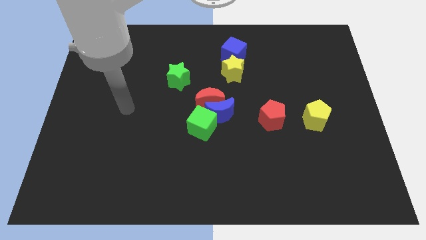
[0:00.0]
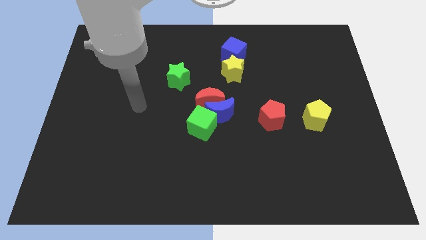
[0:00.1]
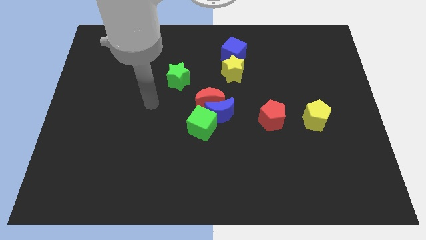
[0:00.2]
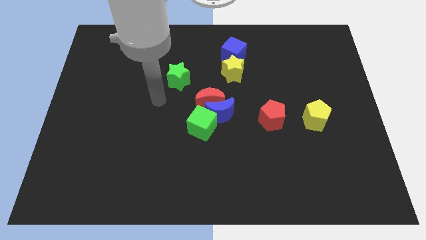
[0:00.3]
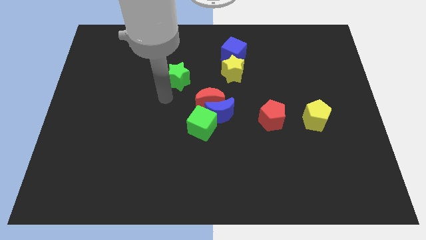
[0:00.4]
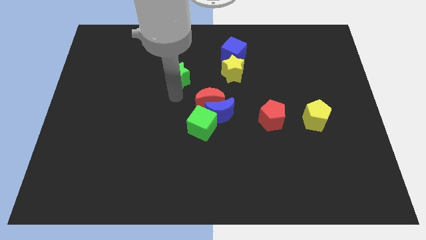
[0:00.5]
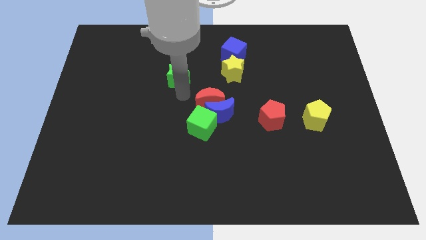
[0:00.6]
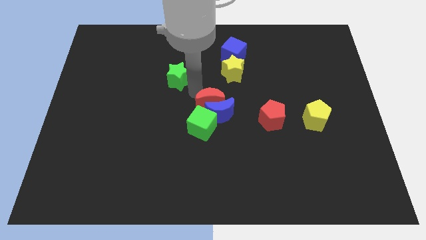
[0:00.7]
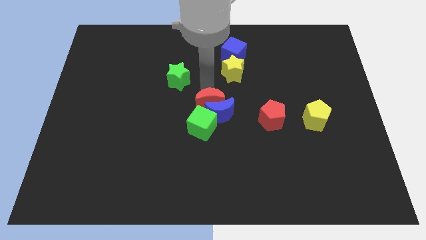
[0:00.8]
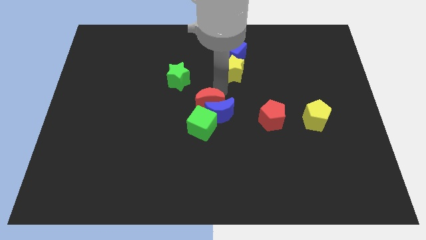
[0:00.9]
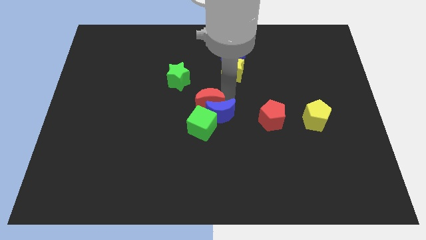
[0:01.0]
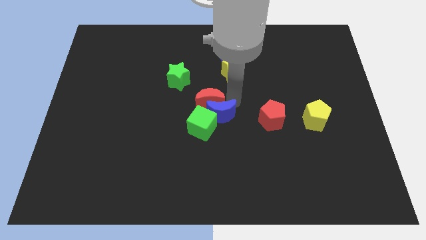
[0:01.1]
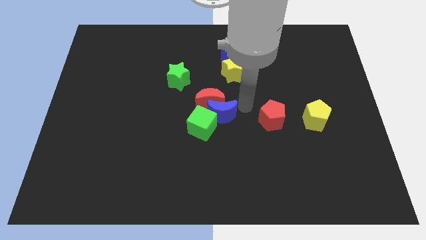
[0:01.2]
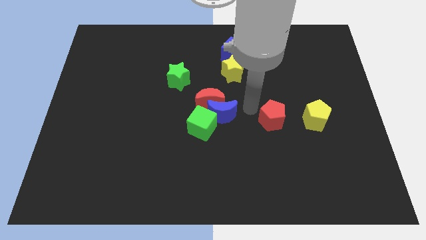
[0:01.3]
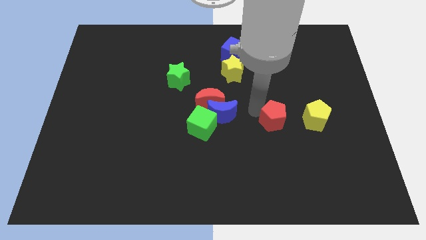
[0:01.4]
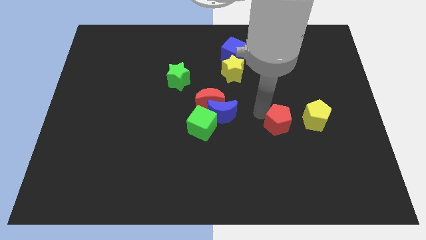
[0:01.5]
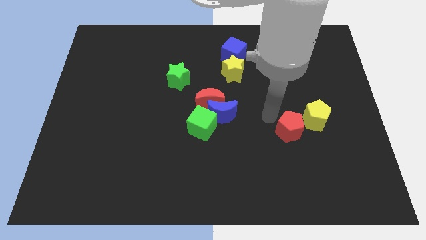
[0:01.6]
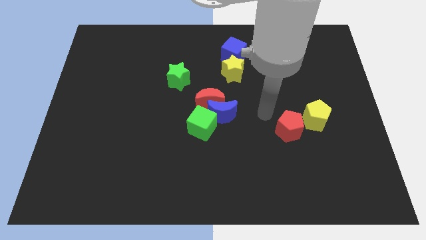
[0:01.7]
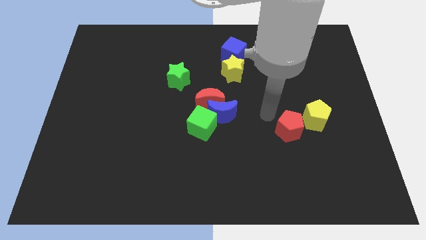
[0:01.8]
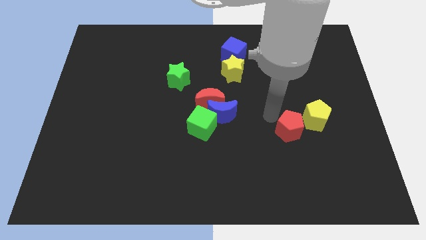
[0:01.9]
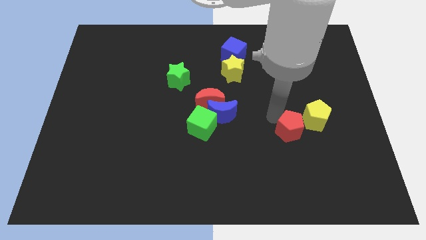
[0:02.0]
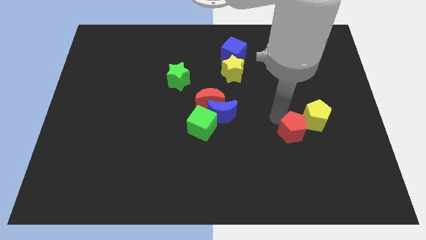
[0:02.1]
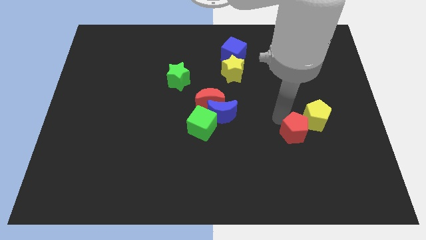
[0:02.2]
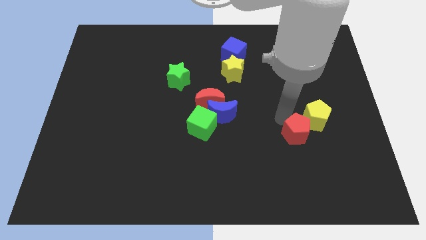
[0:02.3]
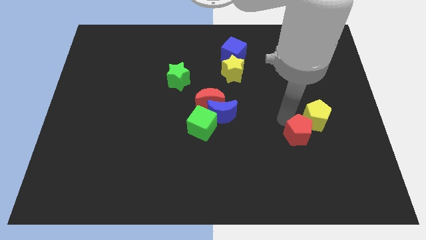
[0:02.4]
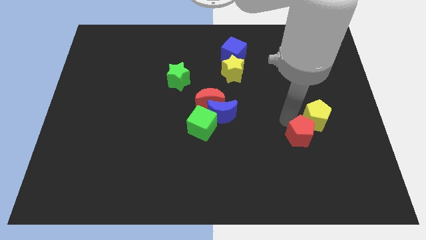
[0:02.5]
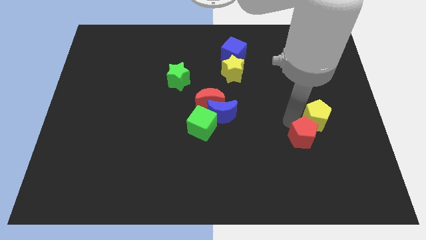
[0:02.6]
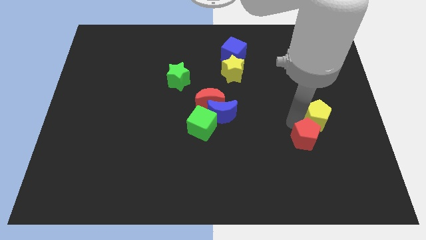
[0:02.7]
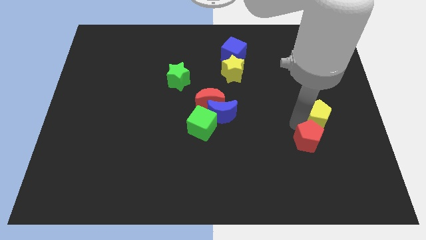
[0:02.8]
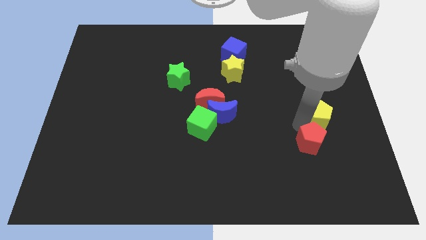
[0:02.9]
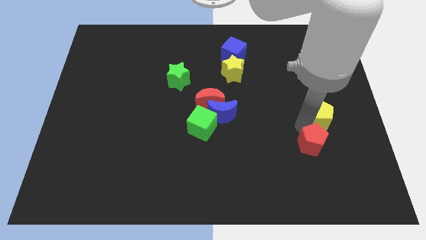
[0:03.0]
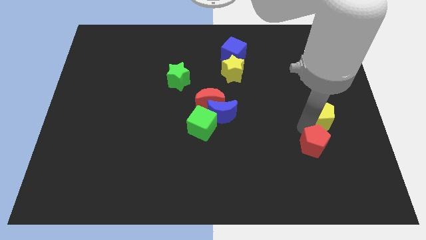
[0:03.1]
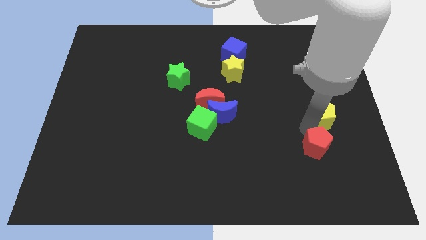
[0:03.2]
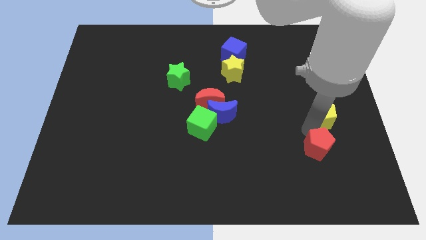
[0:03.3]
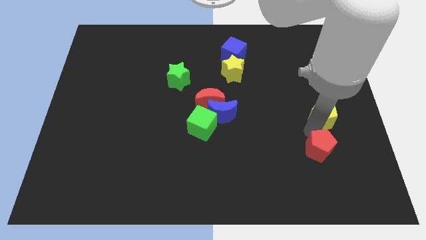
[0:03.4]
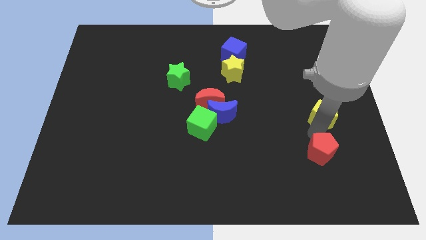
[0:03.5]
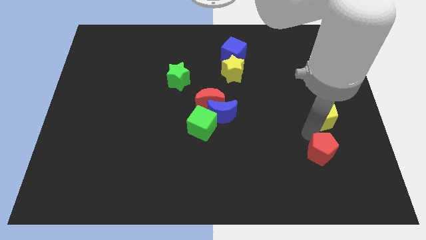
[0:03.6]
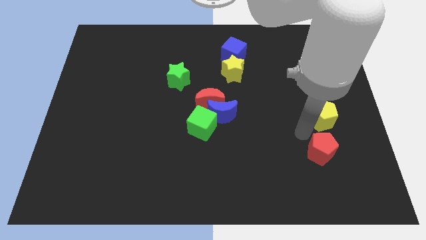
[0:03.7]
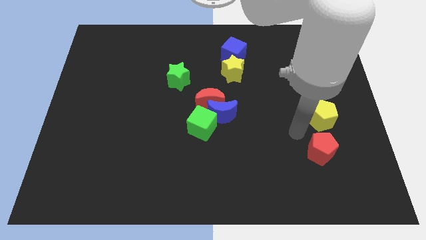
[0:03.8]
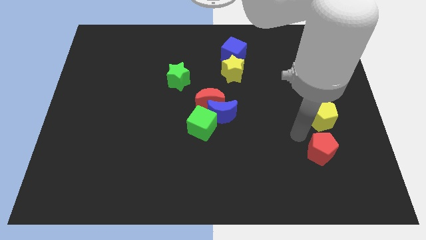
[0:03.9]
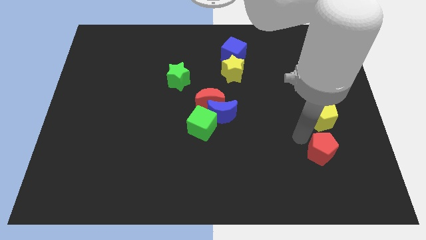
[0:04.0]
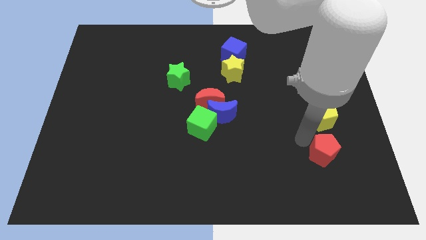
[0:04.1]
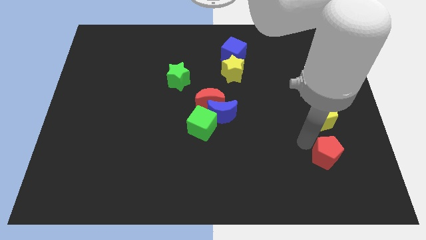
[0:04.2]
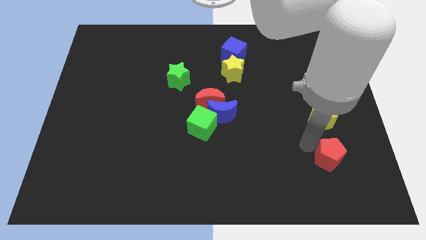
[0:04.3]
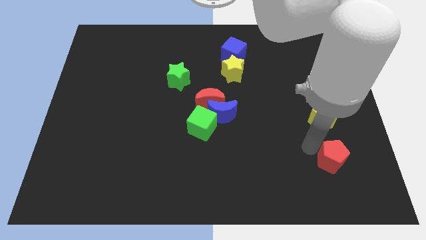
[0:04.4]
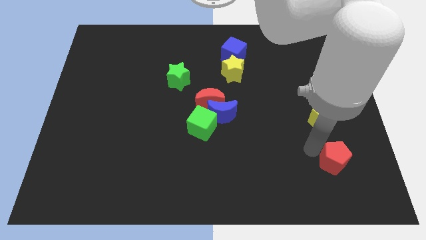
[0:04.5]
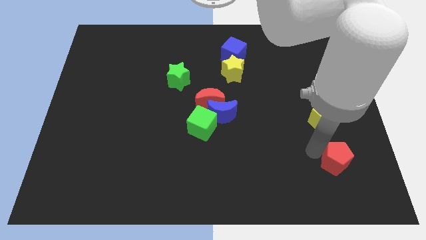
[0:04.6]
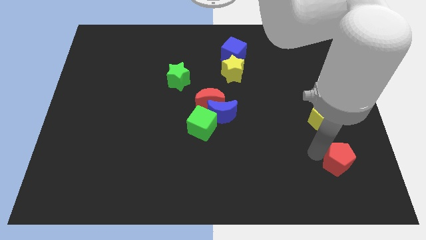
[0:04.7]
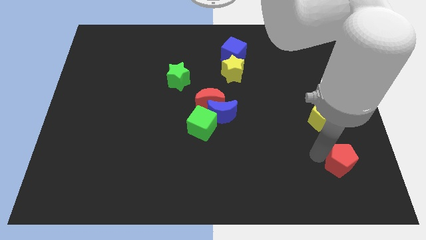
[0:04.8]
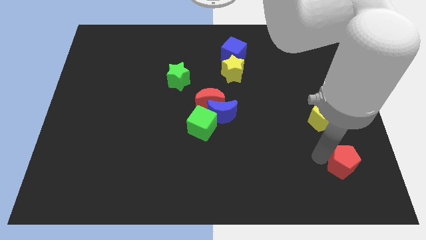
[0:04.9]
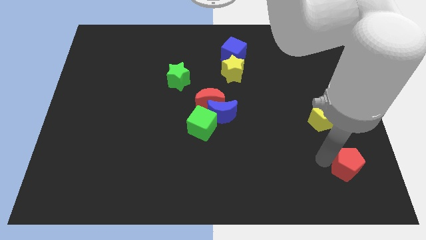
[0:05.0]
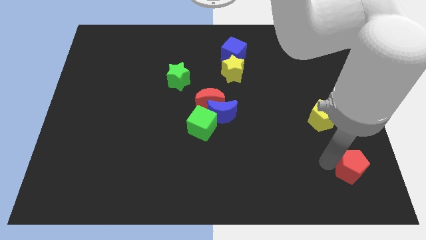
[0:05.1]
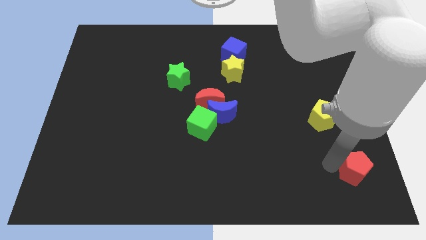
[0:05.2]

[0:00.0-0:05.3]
put the red pentagon to the lower right corner

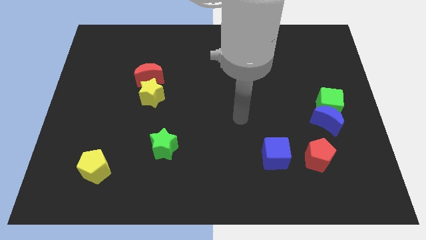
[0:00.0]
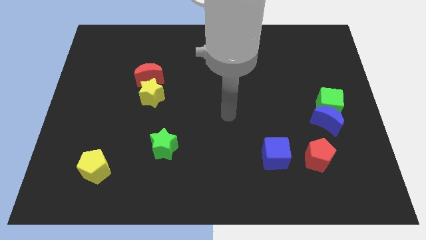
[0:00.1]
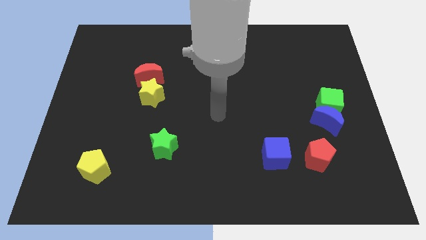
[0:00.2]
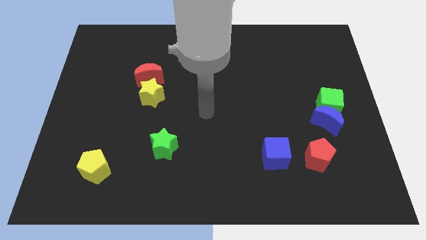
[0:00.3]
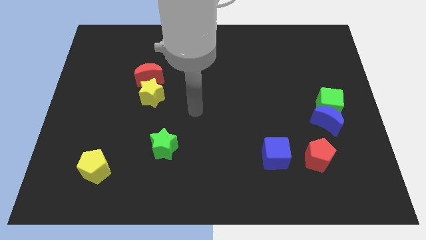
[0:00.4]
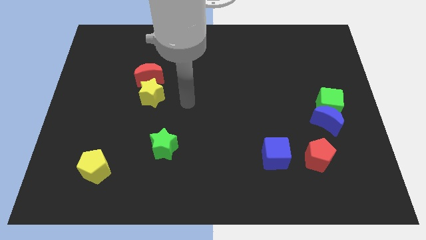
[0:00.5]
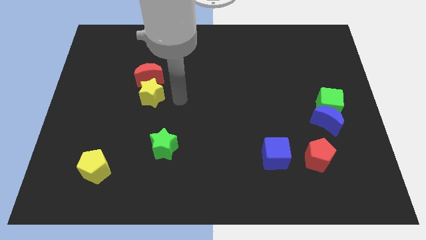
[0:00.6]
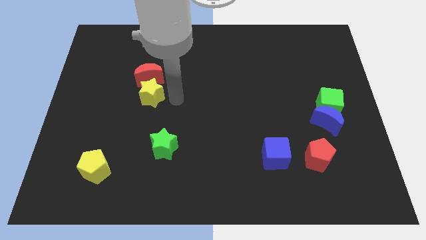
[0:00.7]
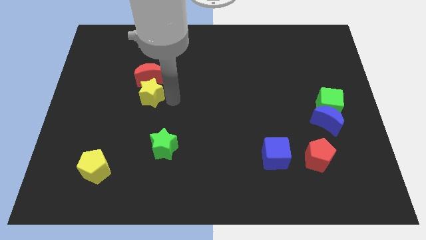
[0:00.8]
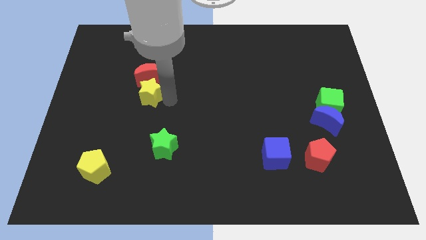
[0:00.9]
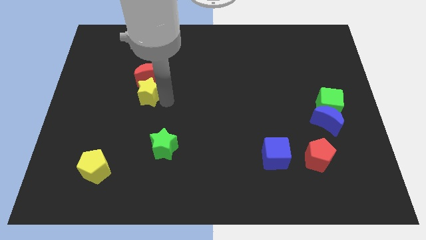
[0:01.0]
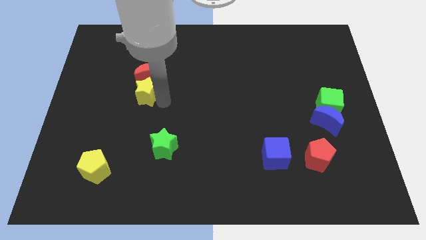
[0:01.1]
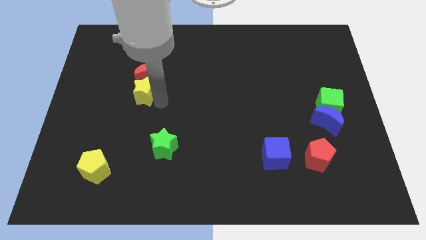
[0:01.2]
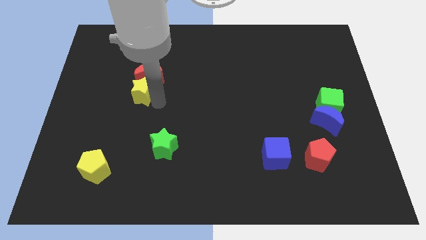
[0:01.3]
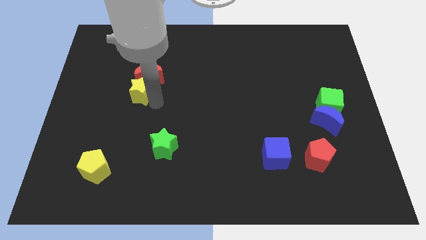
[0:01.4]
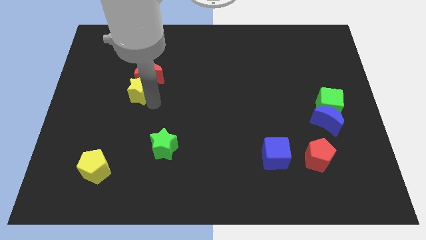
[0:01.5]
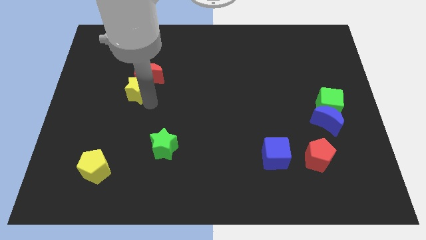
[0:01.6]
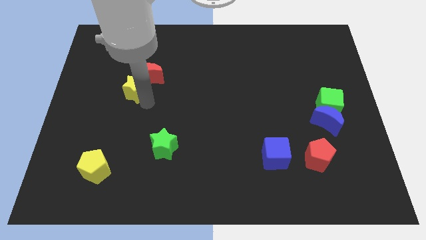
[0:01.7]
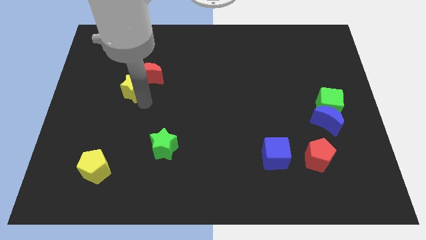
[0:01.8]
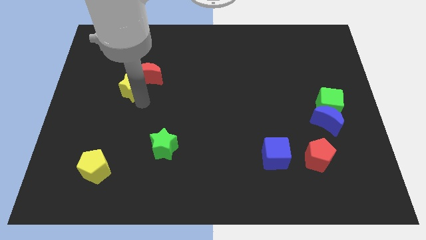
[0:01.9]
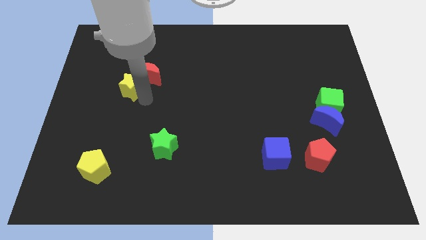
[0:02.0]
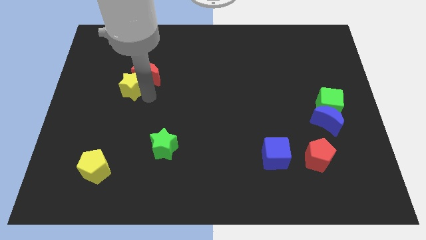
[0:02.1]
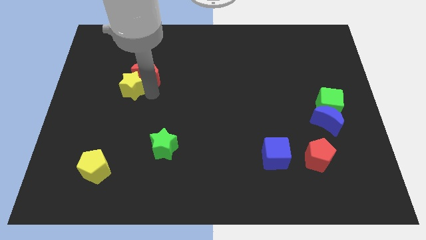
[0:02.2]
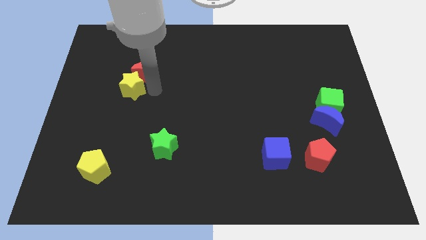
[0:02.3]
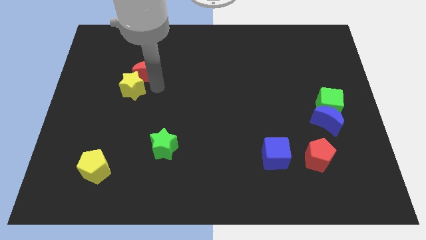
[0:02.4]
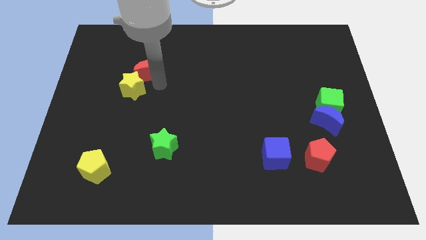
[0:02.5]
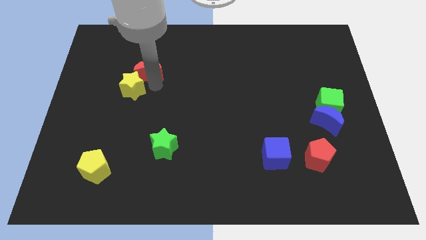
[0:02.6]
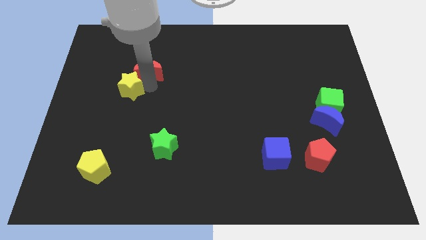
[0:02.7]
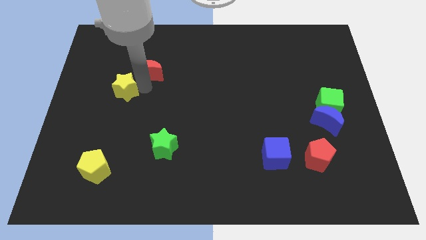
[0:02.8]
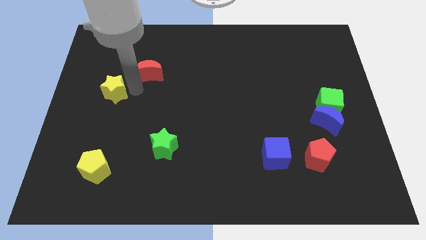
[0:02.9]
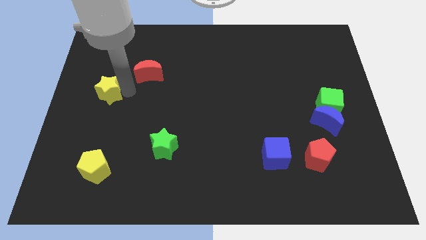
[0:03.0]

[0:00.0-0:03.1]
put the yellow star to the center left
